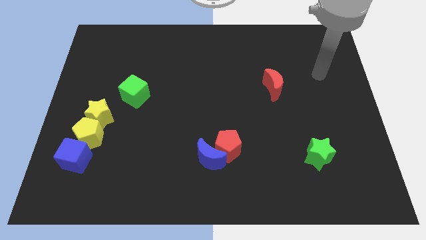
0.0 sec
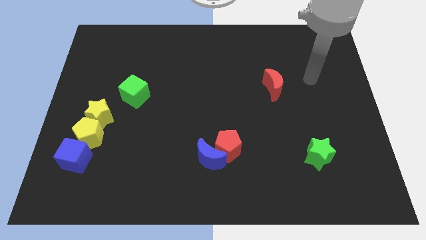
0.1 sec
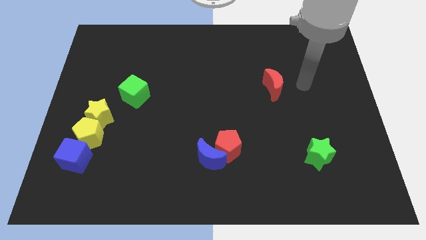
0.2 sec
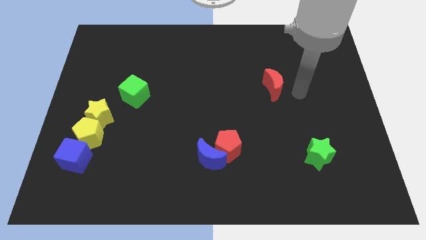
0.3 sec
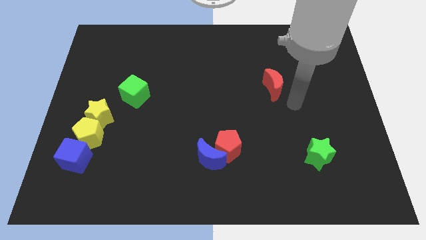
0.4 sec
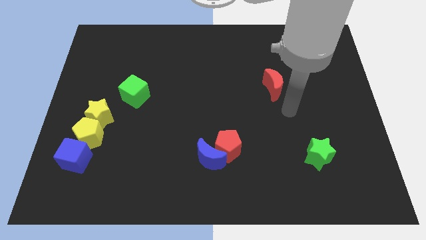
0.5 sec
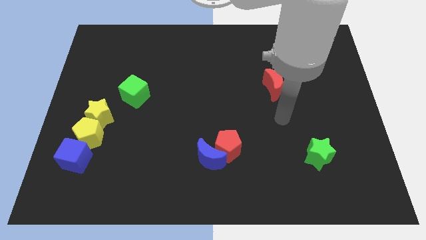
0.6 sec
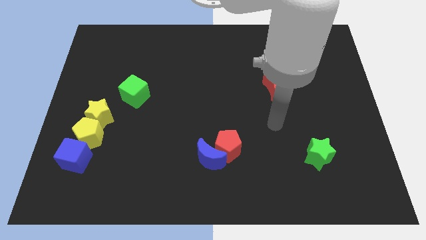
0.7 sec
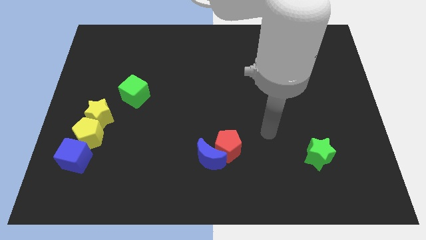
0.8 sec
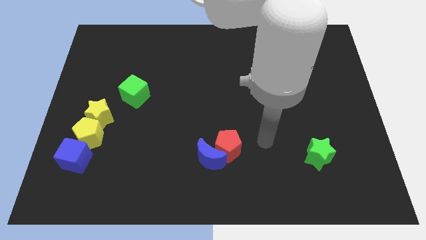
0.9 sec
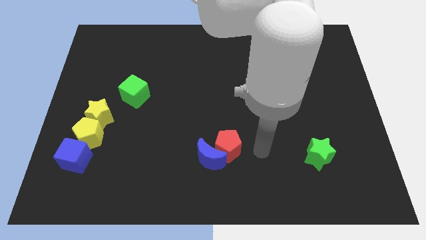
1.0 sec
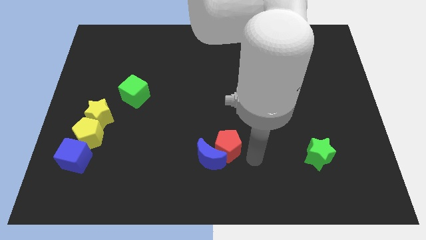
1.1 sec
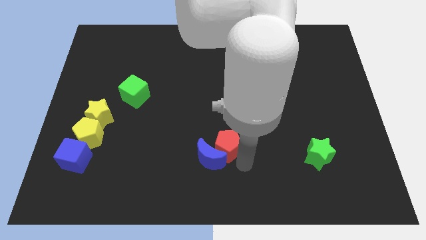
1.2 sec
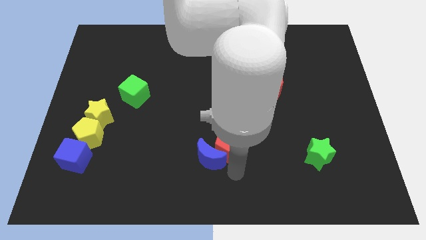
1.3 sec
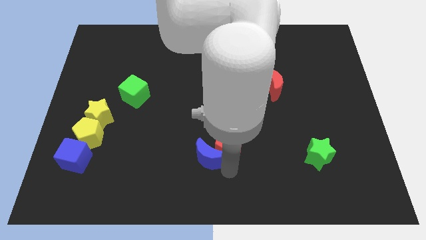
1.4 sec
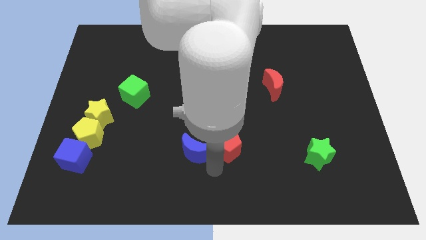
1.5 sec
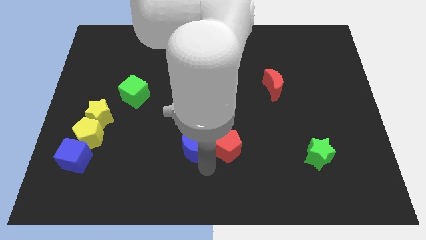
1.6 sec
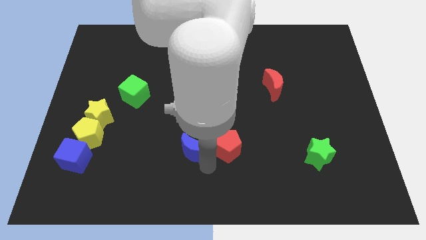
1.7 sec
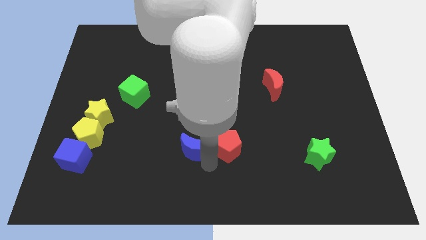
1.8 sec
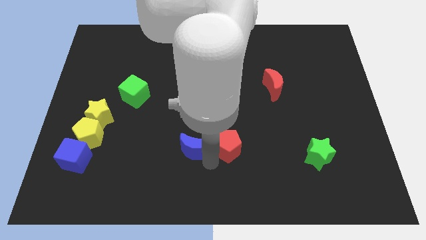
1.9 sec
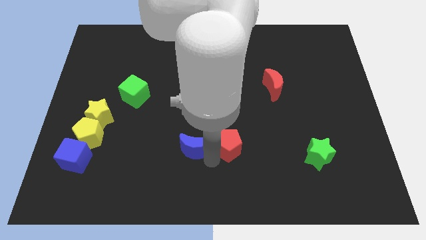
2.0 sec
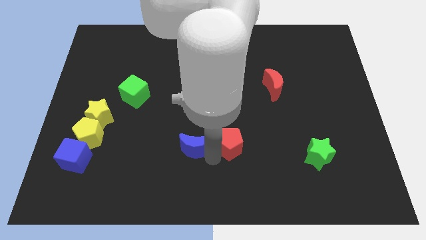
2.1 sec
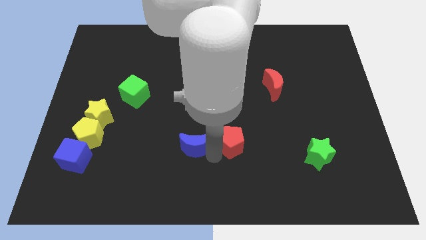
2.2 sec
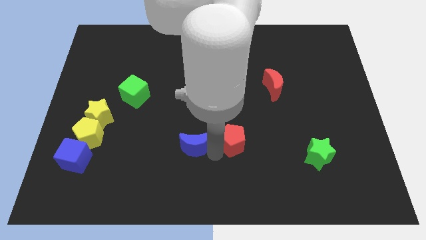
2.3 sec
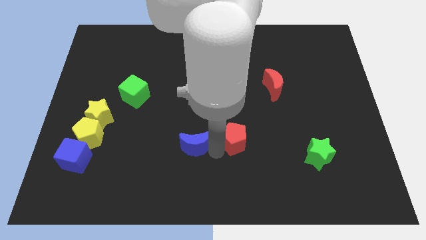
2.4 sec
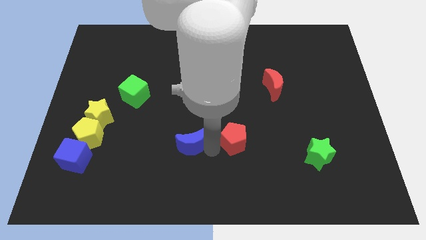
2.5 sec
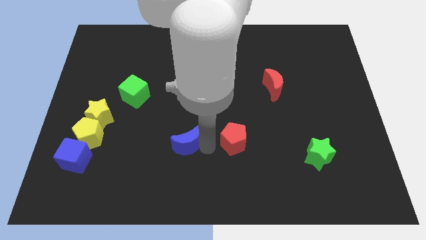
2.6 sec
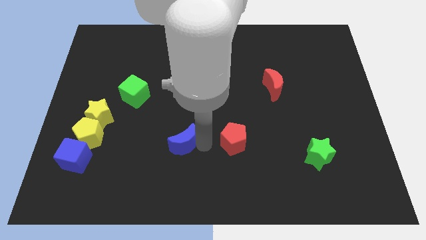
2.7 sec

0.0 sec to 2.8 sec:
move the red pentagon away from the blue moon

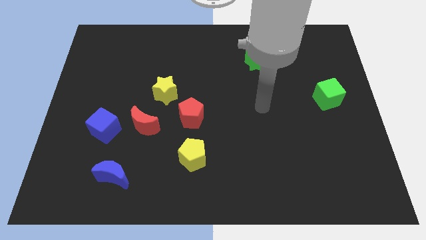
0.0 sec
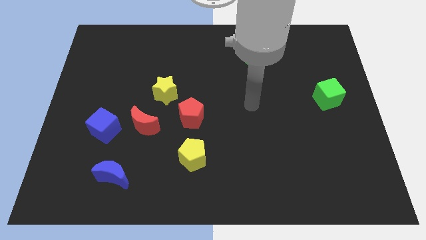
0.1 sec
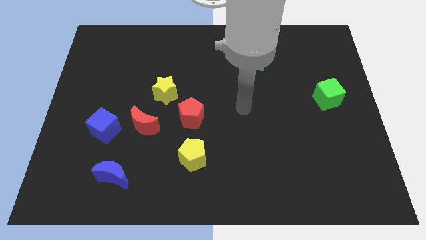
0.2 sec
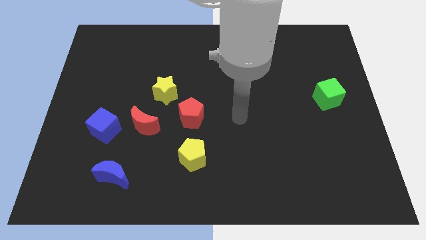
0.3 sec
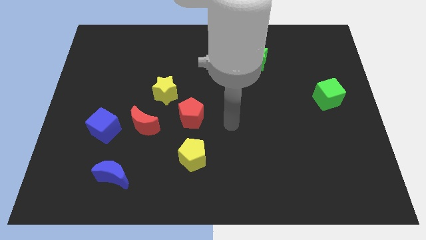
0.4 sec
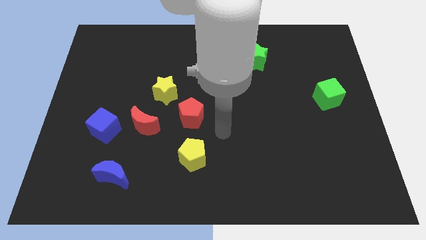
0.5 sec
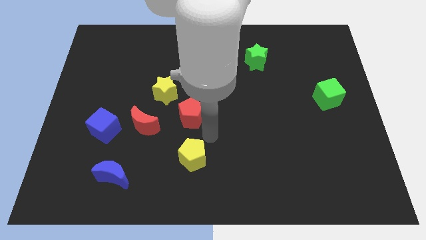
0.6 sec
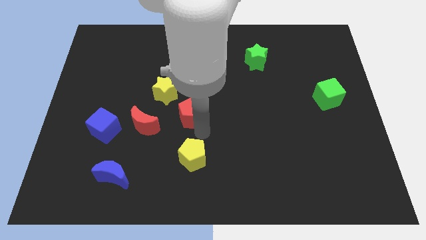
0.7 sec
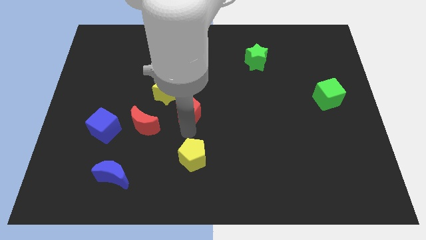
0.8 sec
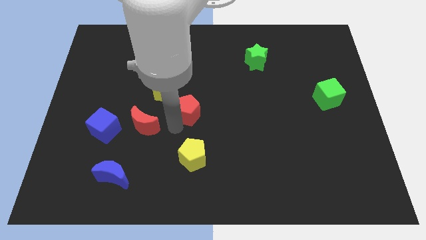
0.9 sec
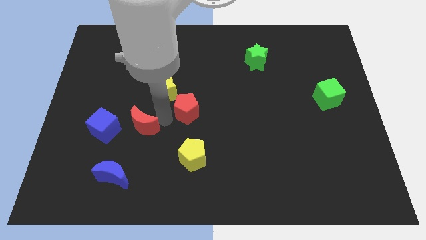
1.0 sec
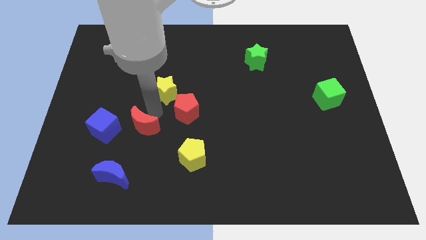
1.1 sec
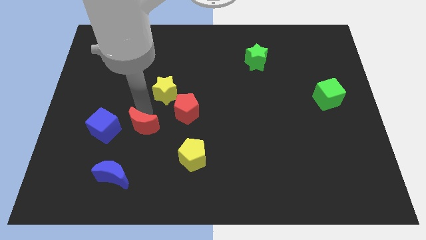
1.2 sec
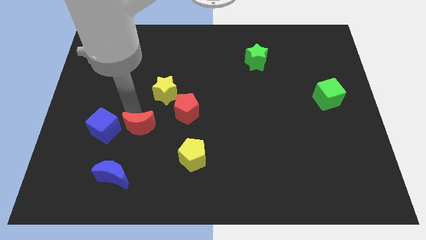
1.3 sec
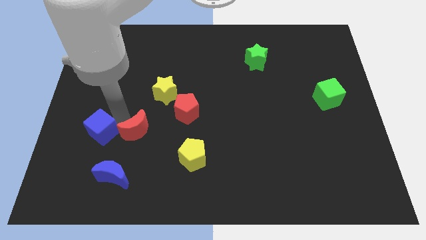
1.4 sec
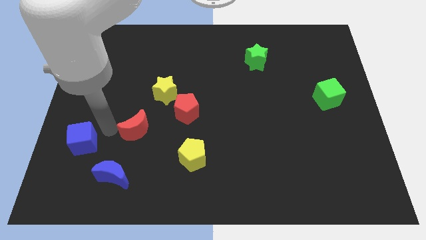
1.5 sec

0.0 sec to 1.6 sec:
pull the red moon apart from the blue cube

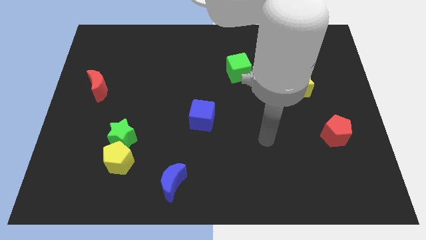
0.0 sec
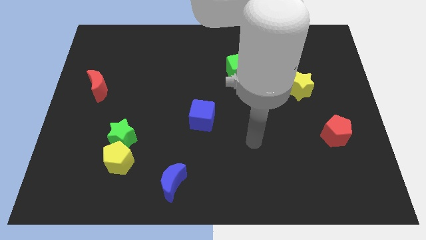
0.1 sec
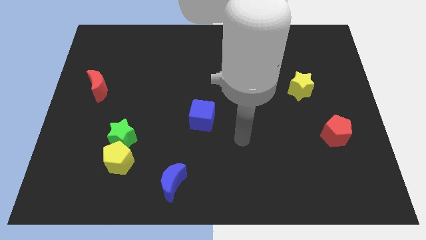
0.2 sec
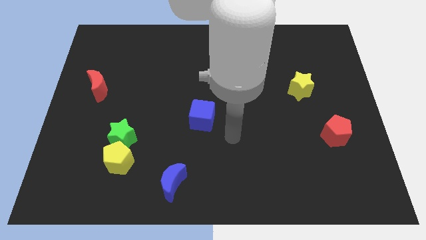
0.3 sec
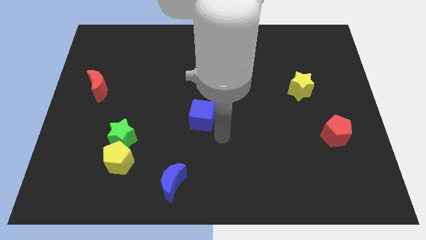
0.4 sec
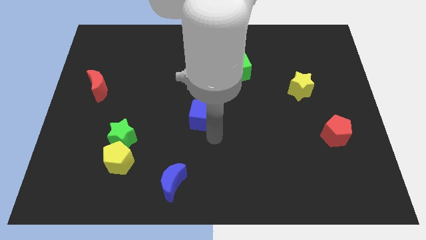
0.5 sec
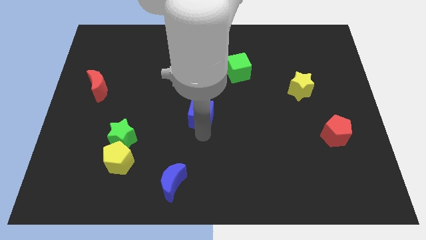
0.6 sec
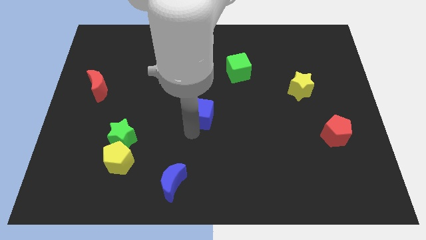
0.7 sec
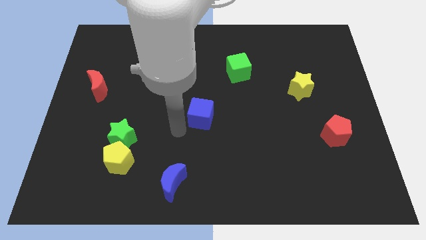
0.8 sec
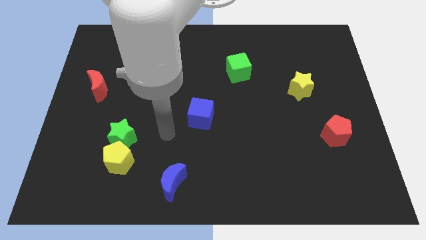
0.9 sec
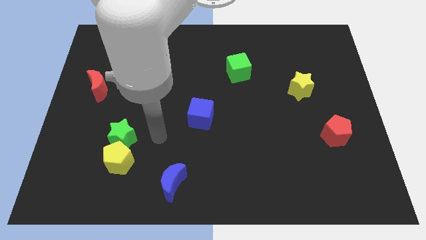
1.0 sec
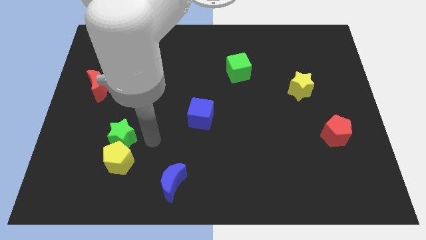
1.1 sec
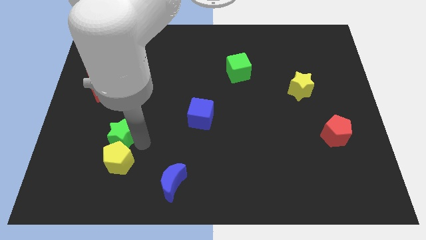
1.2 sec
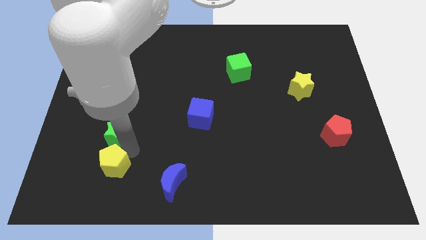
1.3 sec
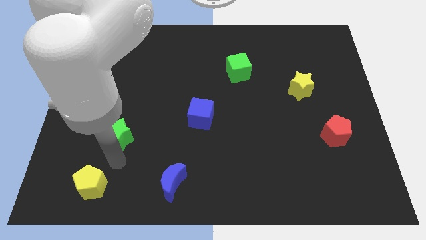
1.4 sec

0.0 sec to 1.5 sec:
pull the green star apart from the yellow pentagon

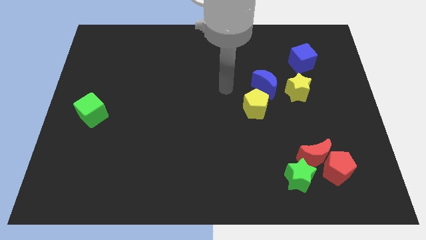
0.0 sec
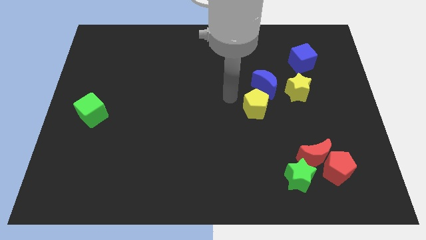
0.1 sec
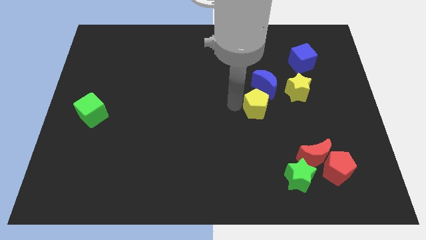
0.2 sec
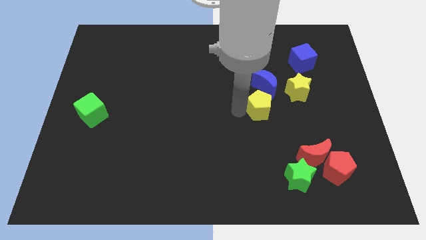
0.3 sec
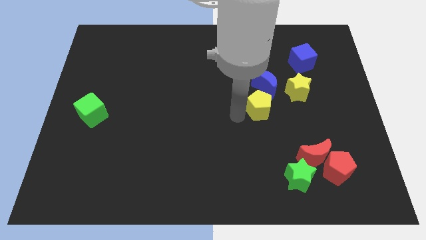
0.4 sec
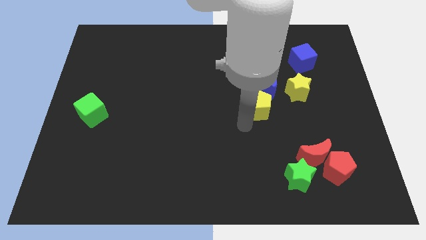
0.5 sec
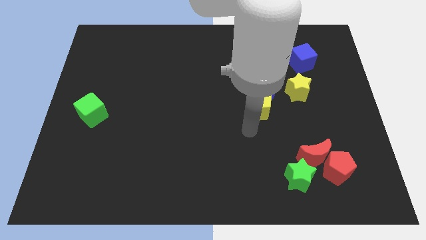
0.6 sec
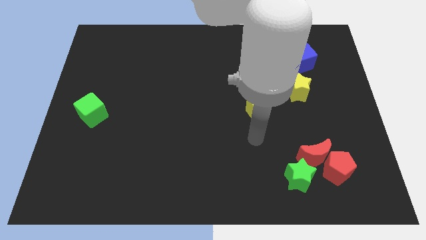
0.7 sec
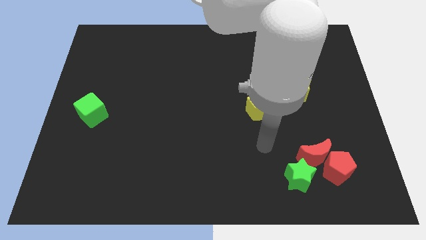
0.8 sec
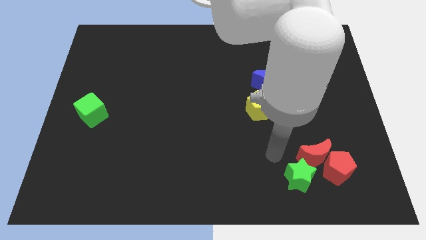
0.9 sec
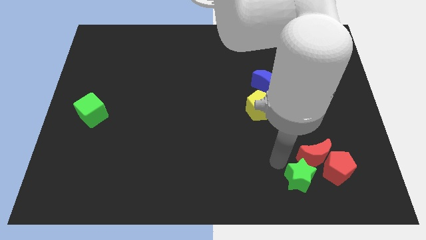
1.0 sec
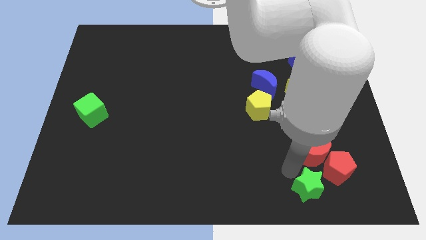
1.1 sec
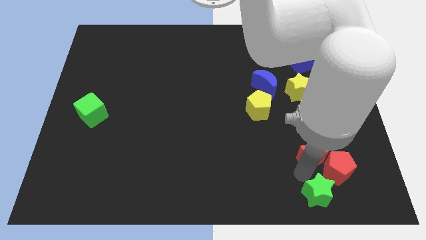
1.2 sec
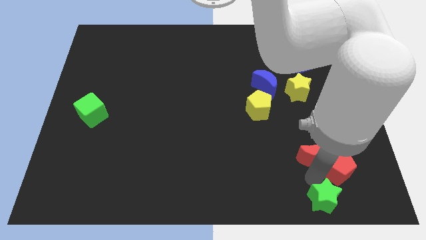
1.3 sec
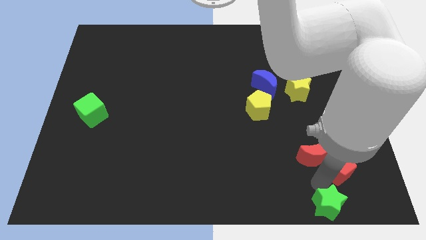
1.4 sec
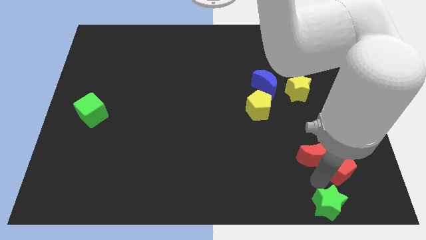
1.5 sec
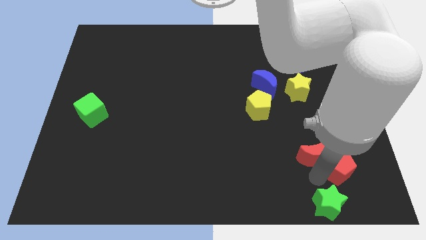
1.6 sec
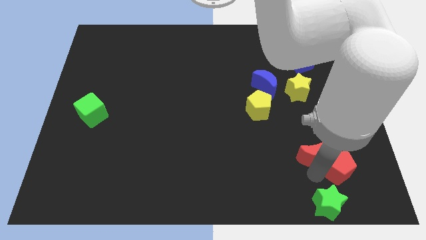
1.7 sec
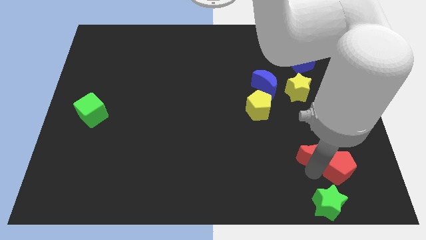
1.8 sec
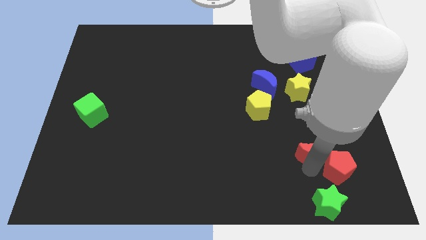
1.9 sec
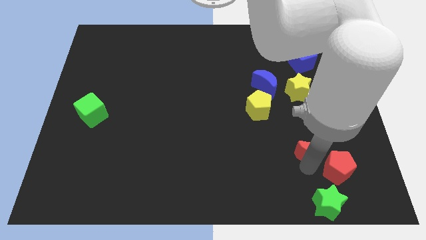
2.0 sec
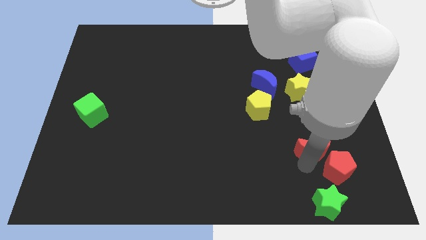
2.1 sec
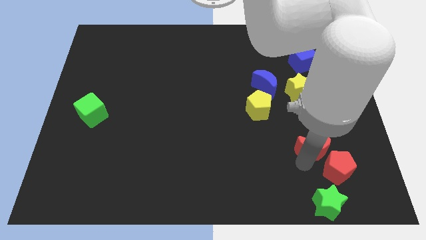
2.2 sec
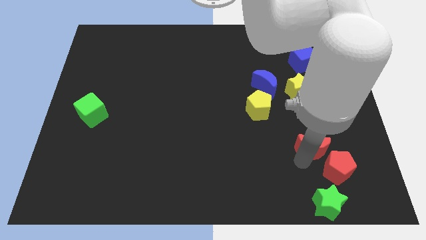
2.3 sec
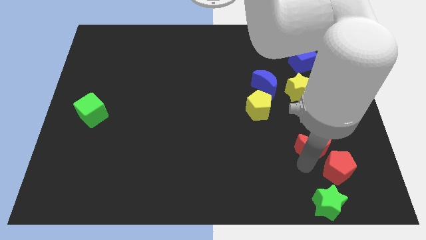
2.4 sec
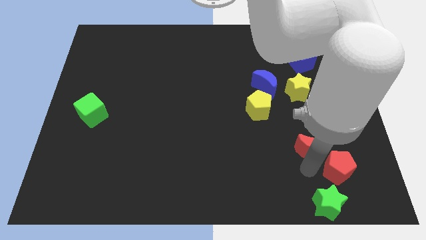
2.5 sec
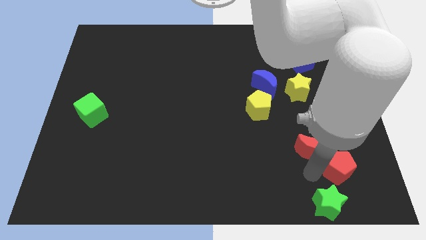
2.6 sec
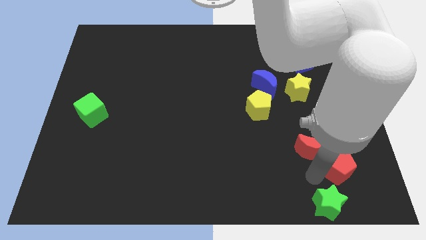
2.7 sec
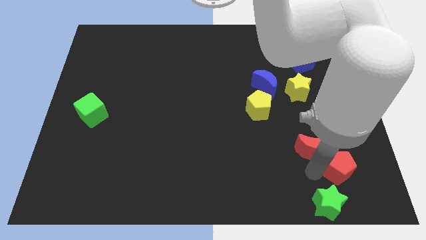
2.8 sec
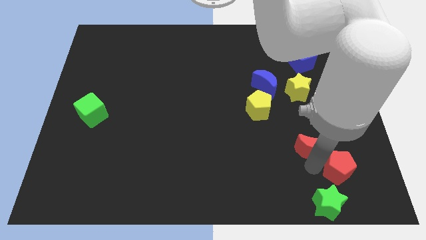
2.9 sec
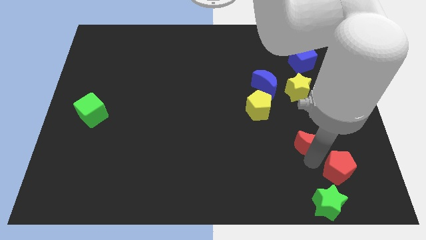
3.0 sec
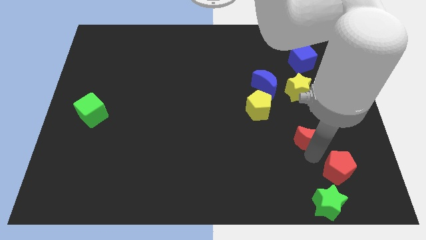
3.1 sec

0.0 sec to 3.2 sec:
pull the red moon apart from the red pentagon and green star

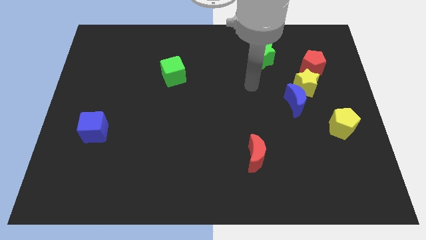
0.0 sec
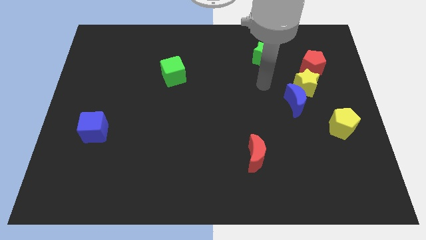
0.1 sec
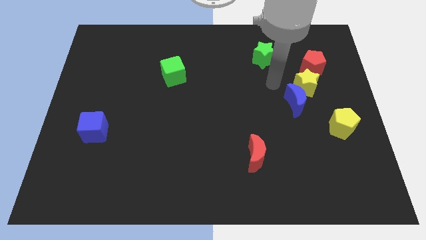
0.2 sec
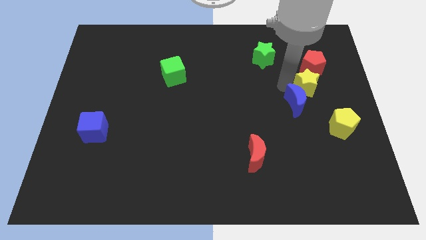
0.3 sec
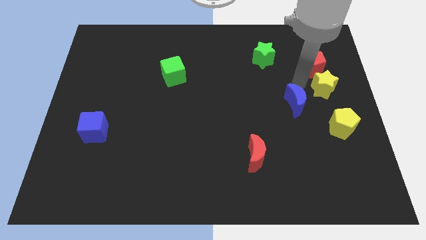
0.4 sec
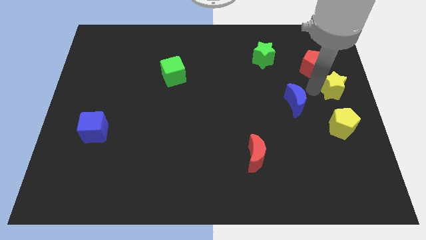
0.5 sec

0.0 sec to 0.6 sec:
pull the blue moon apart from the yellow star
